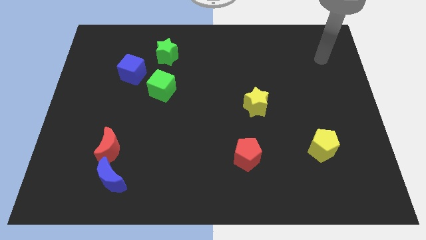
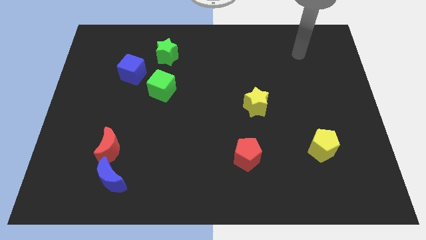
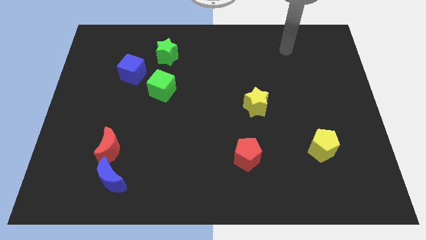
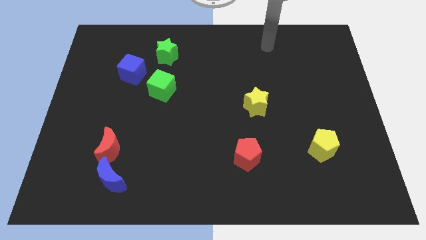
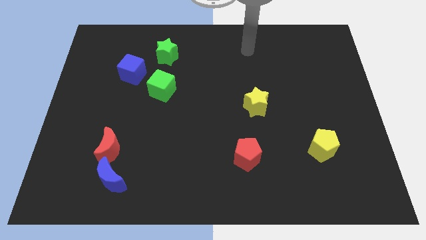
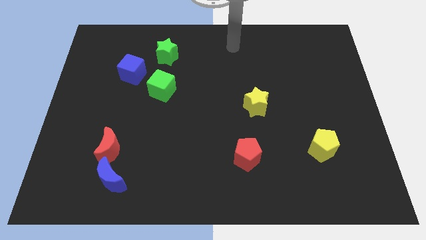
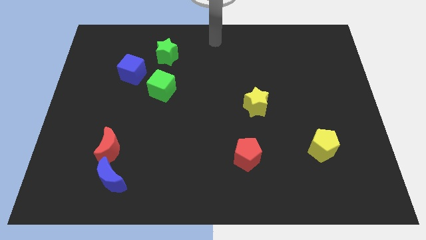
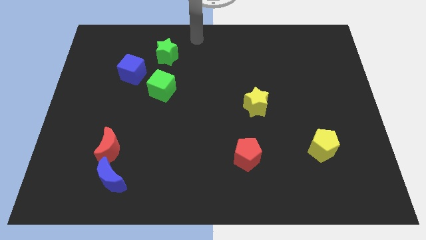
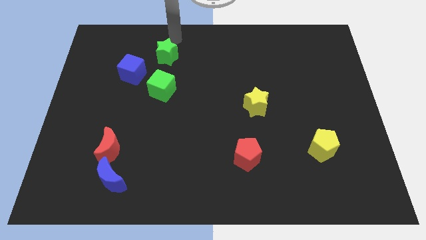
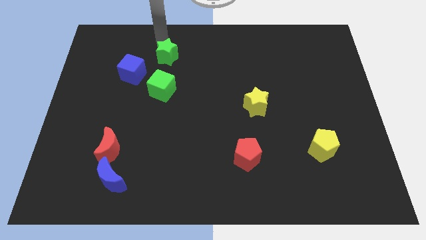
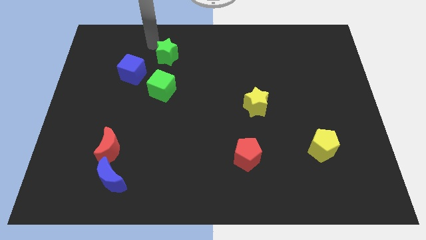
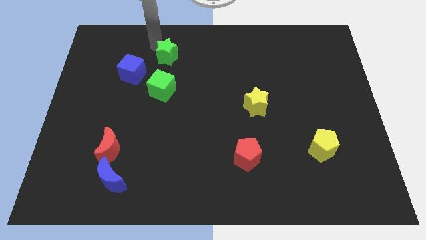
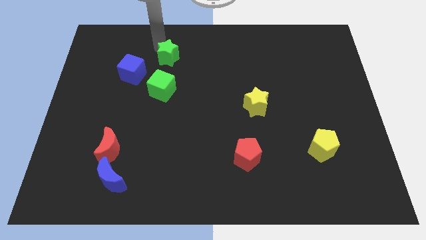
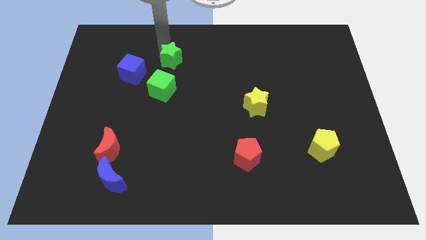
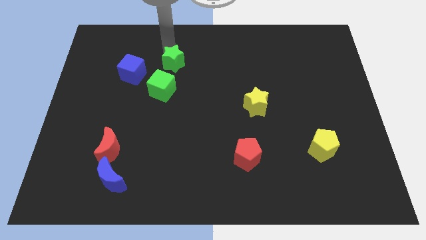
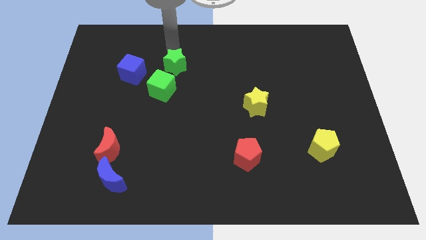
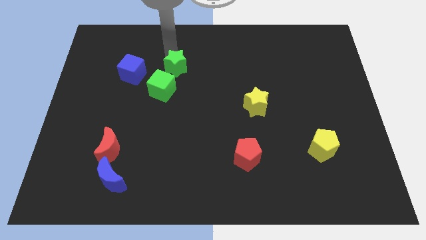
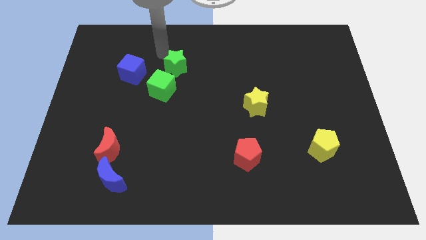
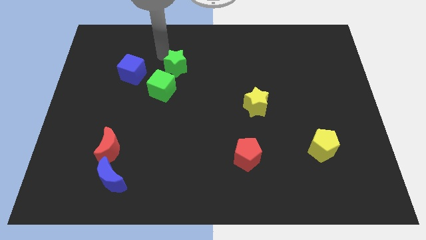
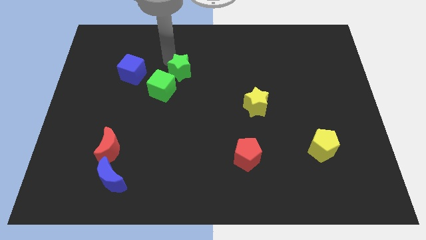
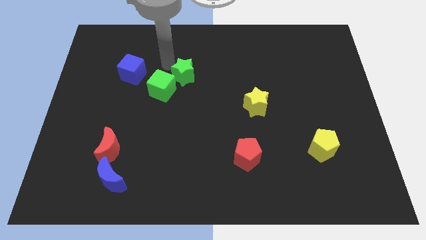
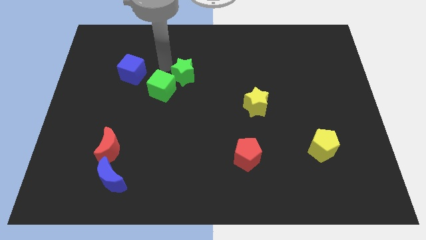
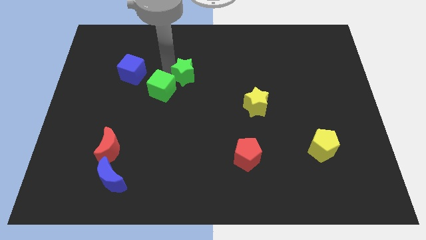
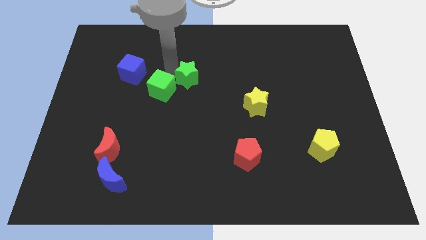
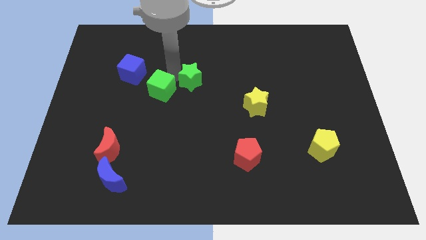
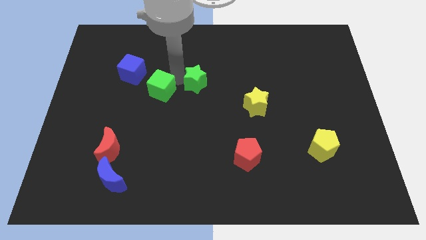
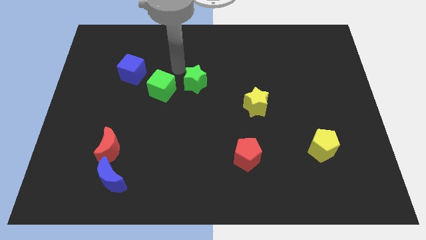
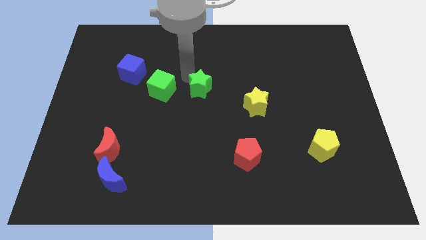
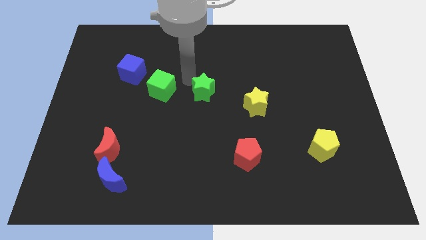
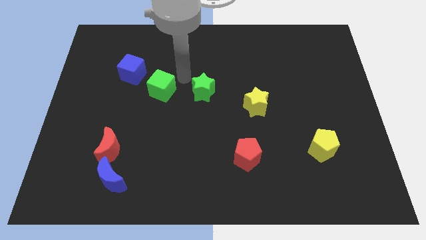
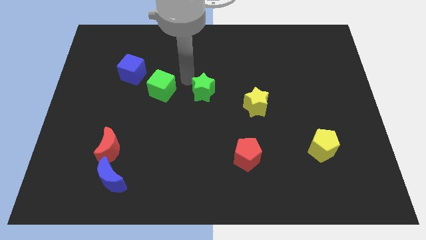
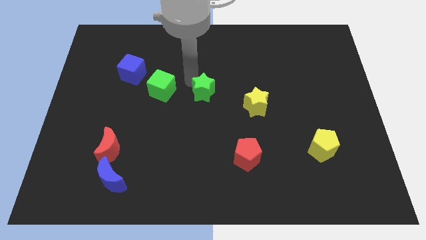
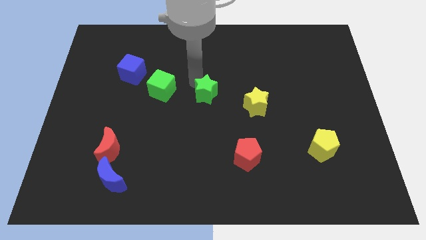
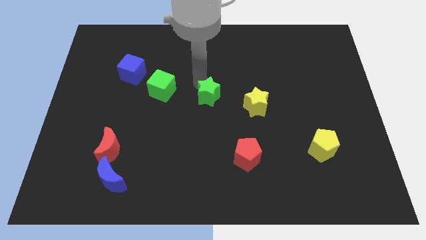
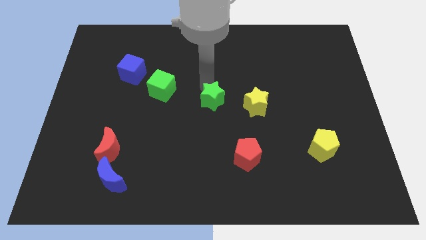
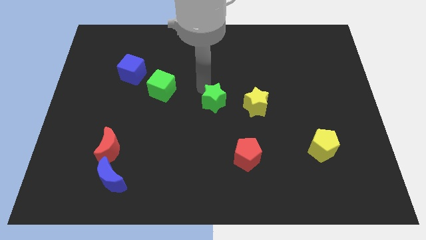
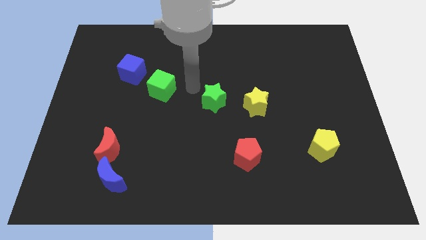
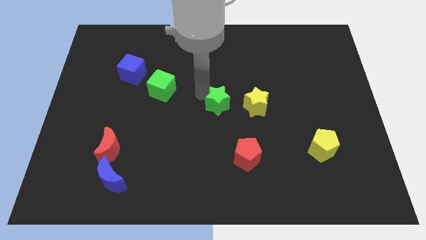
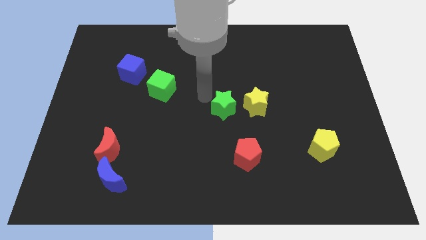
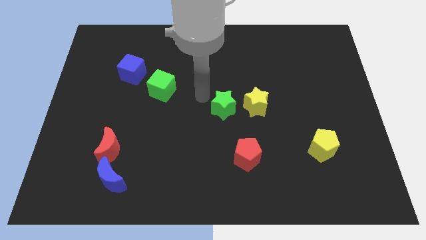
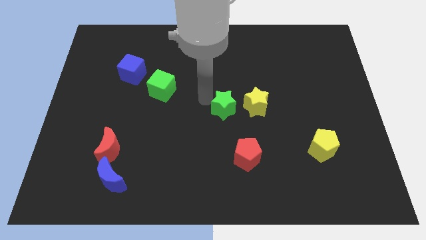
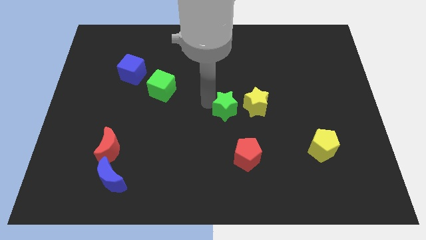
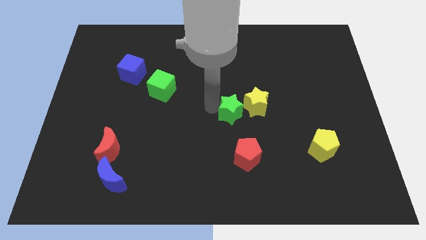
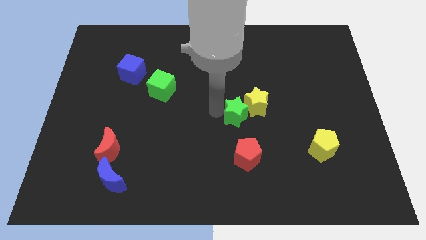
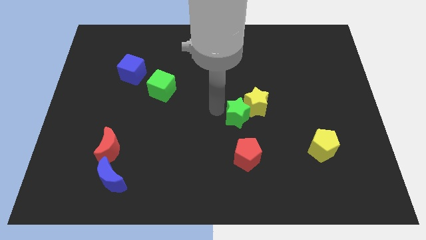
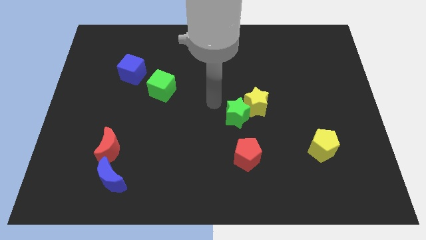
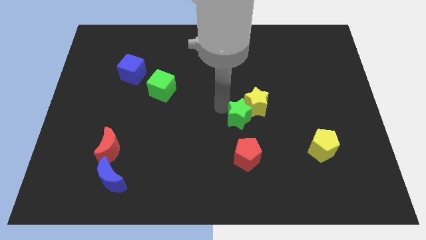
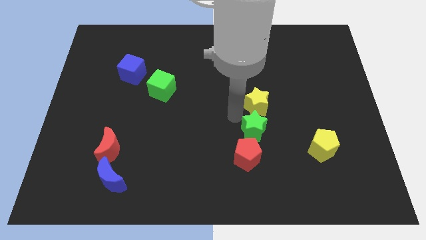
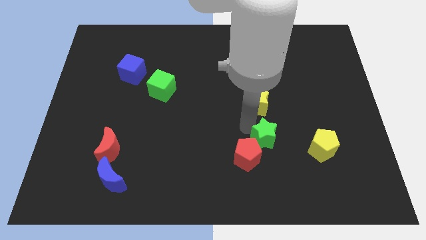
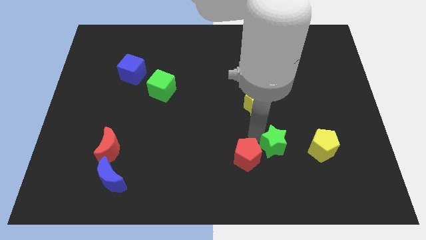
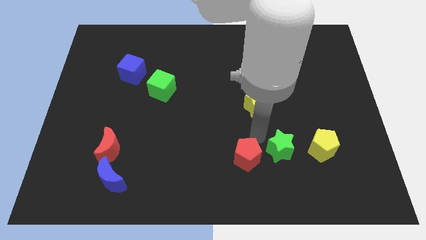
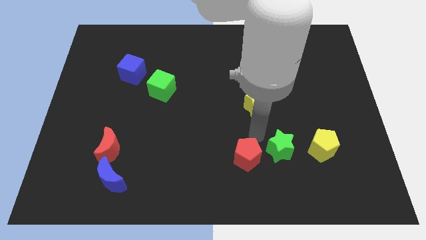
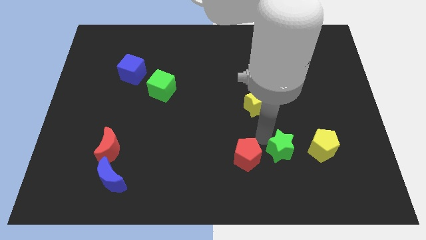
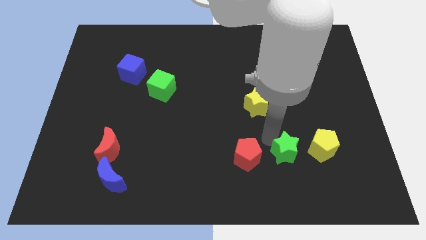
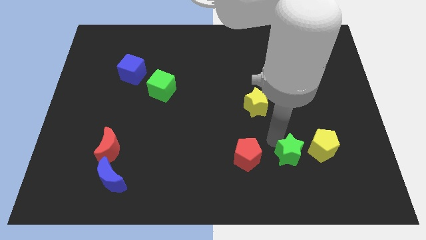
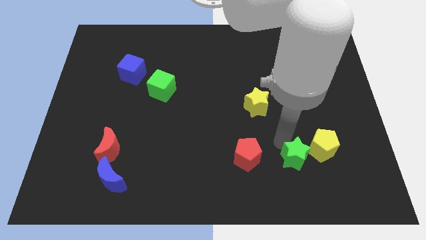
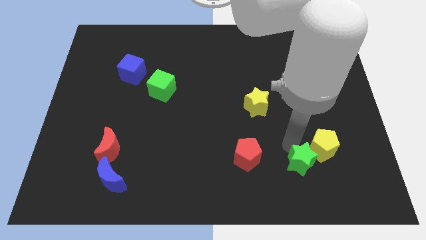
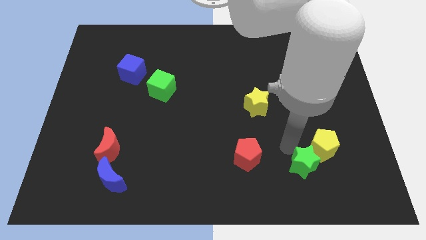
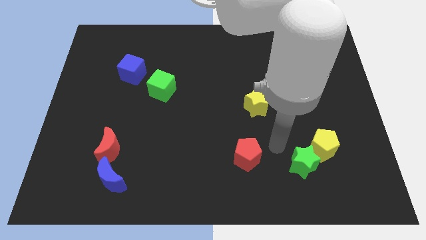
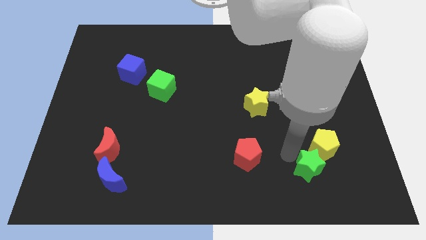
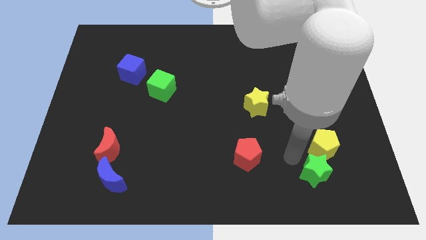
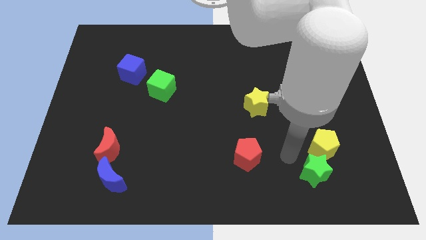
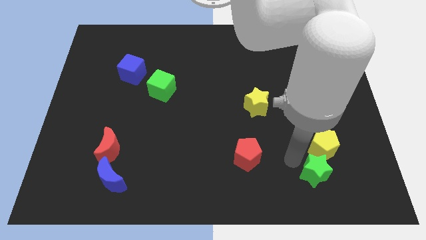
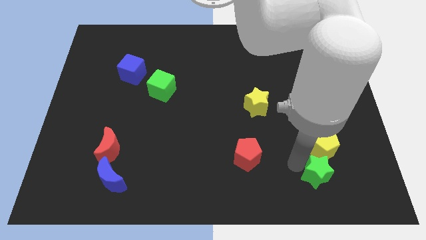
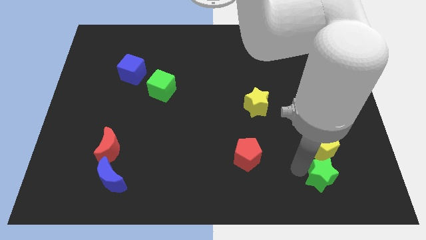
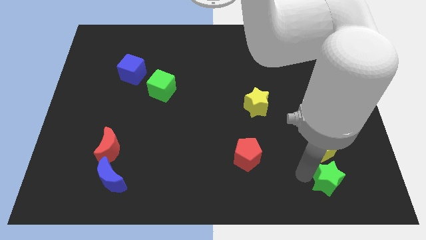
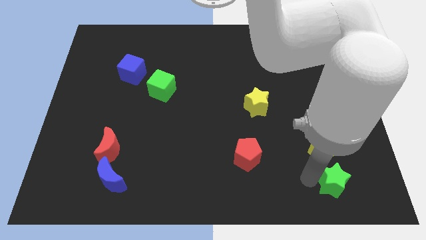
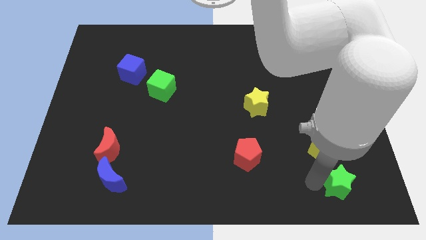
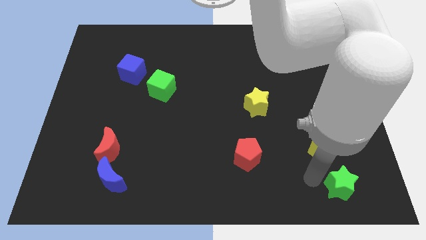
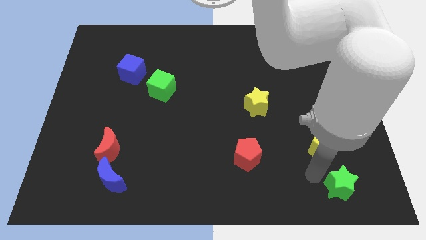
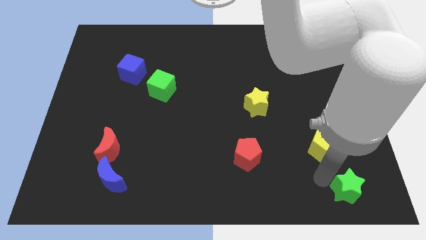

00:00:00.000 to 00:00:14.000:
slide the green star to the bottom right of the board
